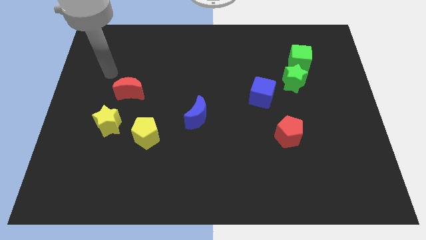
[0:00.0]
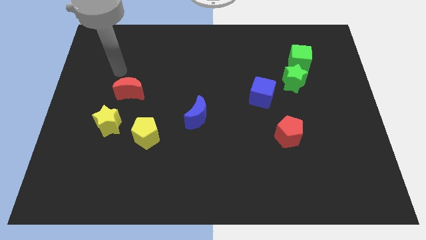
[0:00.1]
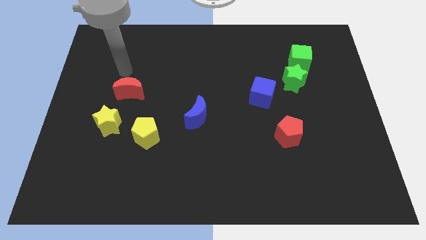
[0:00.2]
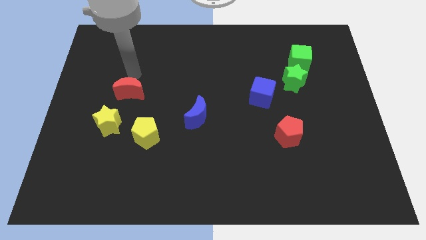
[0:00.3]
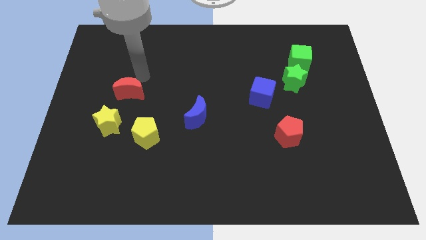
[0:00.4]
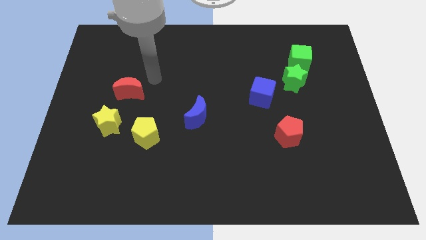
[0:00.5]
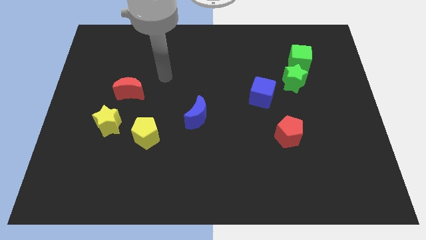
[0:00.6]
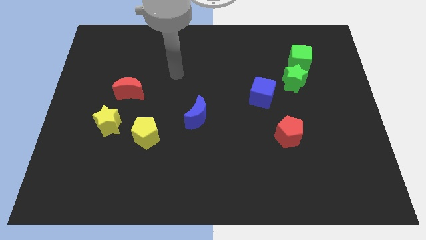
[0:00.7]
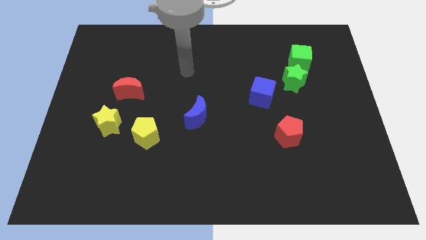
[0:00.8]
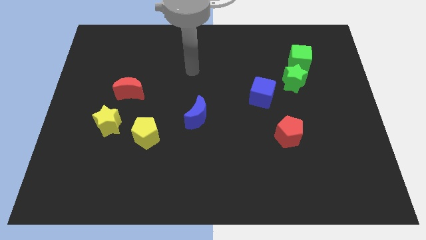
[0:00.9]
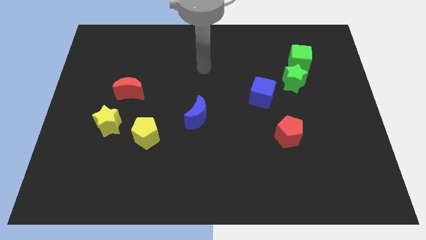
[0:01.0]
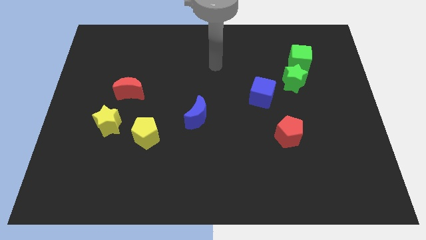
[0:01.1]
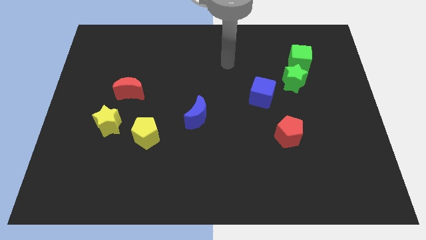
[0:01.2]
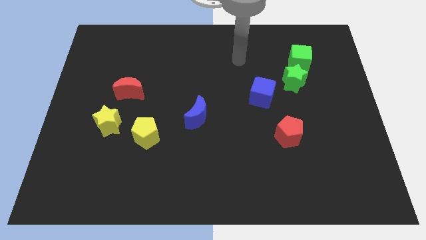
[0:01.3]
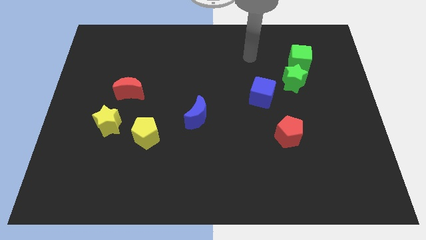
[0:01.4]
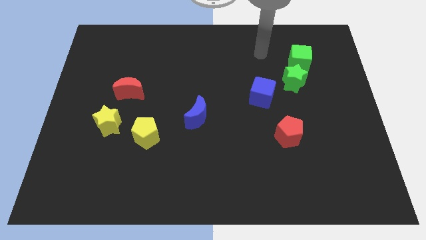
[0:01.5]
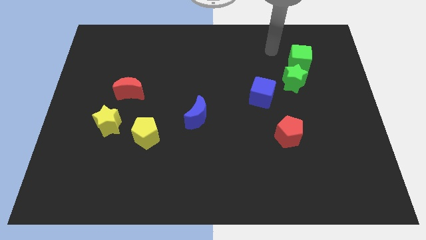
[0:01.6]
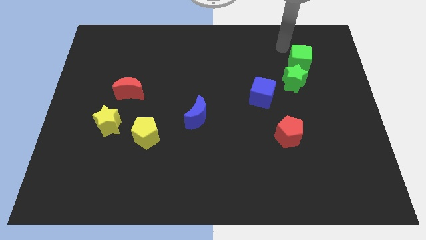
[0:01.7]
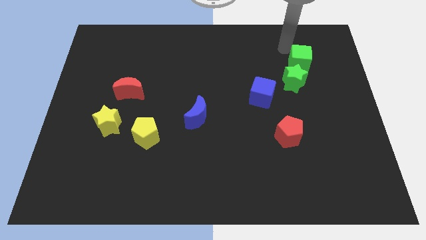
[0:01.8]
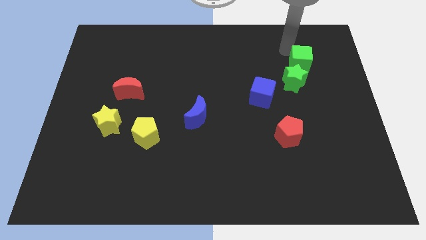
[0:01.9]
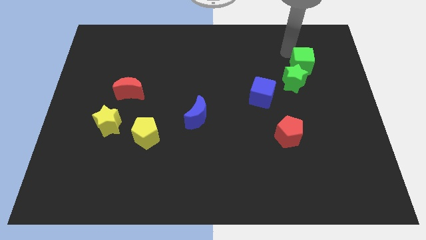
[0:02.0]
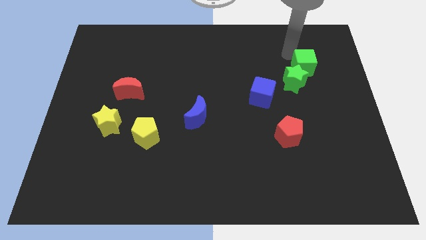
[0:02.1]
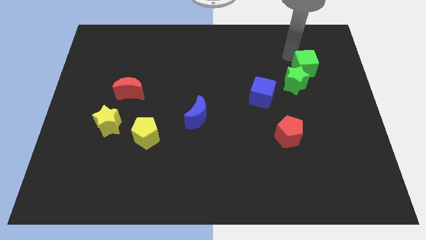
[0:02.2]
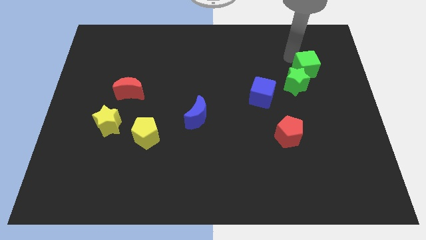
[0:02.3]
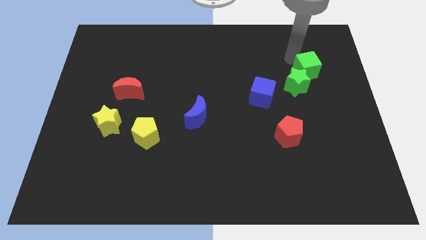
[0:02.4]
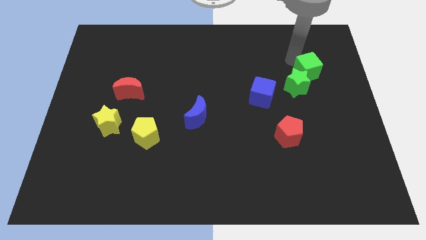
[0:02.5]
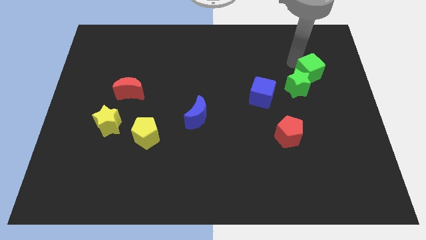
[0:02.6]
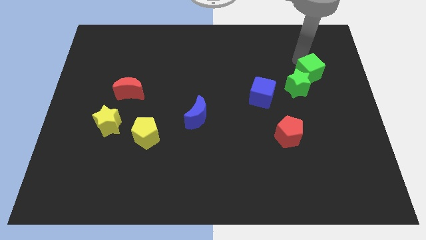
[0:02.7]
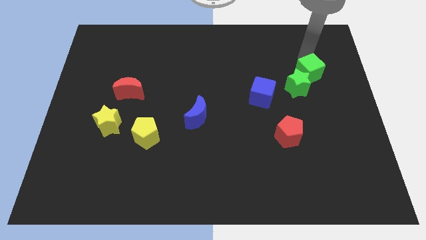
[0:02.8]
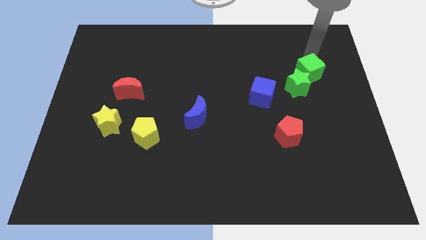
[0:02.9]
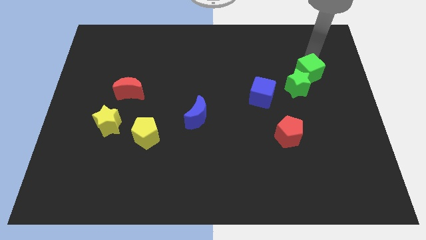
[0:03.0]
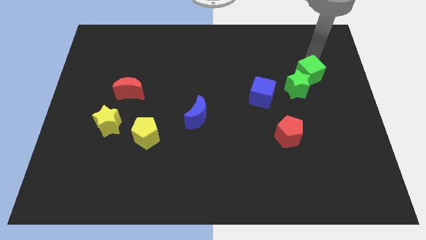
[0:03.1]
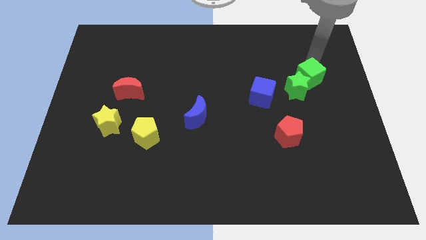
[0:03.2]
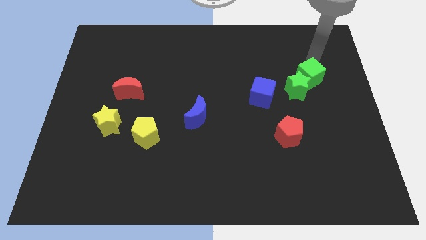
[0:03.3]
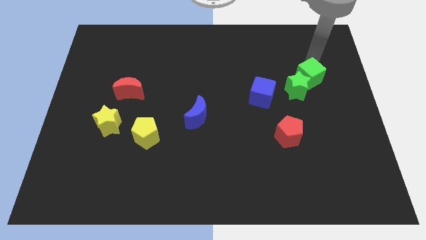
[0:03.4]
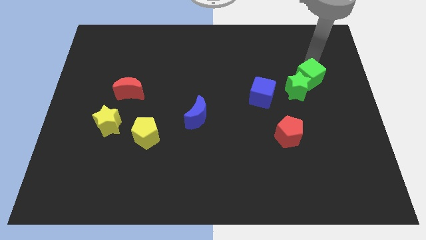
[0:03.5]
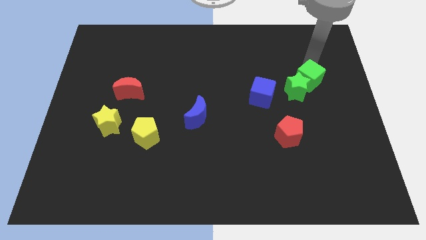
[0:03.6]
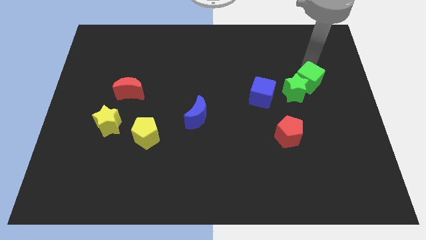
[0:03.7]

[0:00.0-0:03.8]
push the green cube a bit down

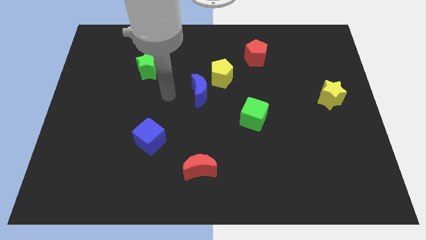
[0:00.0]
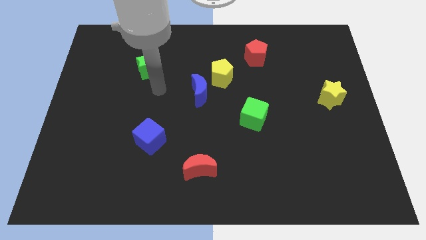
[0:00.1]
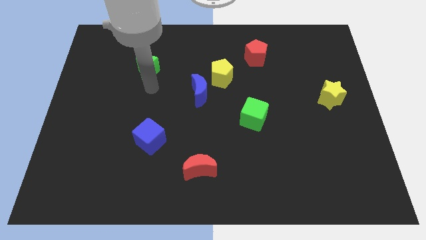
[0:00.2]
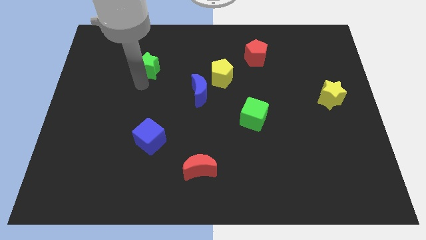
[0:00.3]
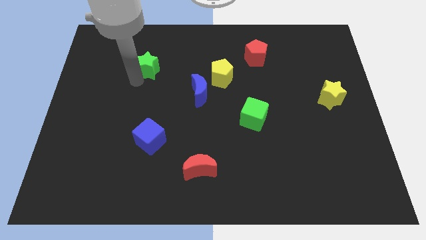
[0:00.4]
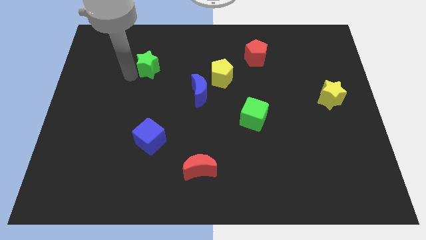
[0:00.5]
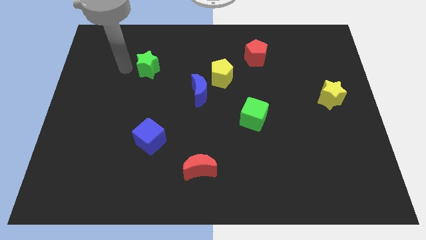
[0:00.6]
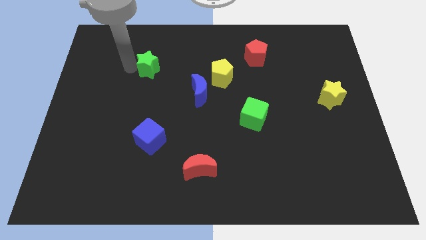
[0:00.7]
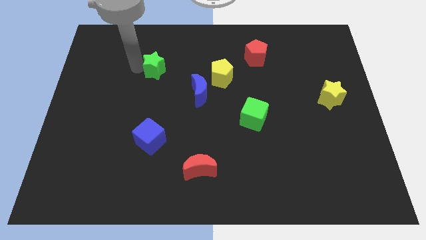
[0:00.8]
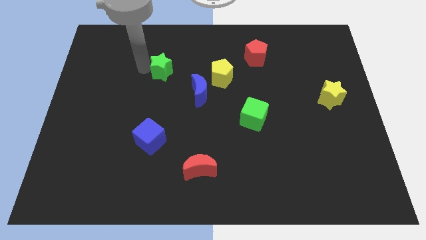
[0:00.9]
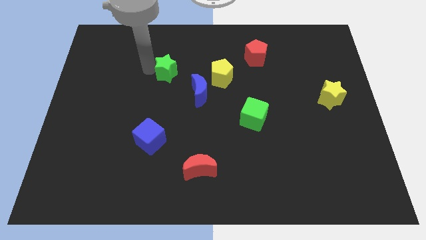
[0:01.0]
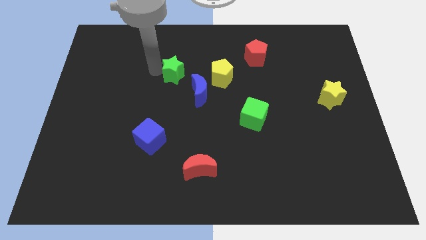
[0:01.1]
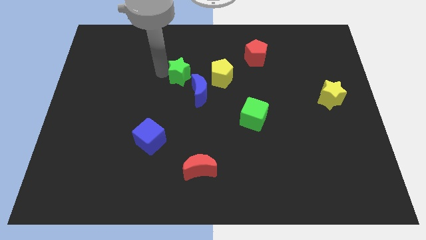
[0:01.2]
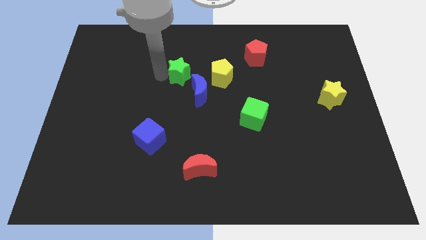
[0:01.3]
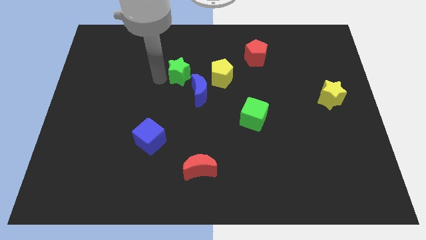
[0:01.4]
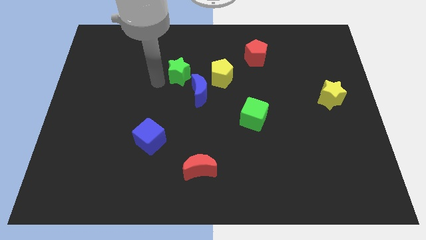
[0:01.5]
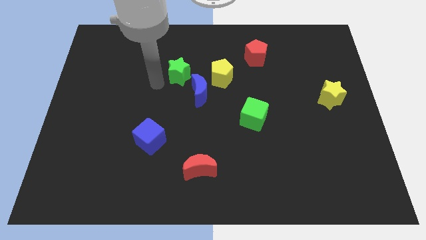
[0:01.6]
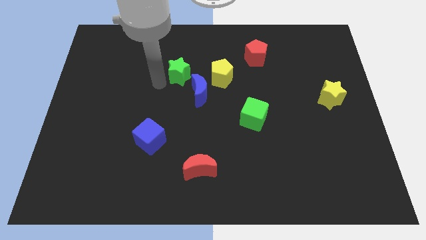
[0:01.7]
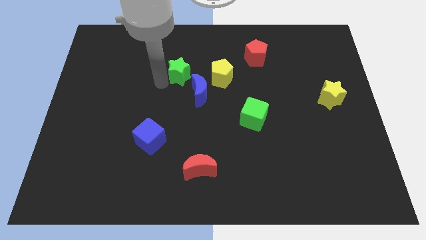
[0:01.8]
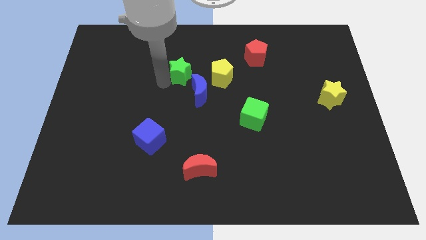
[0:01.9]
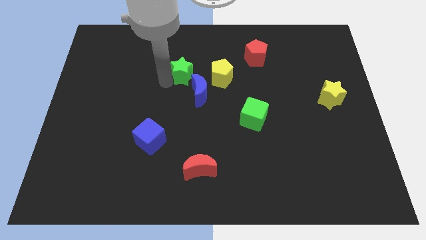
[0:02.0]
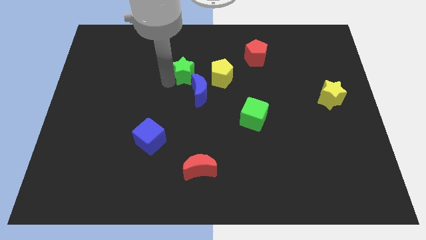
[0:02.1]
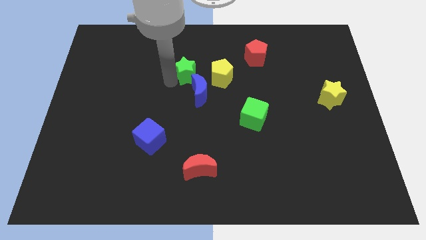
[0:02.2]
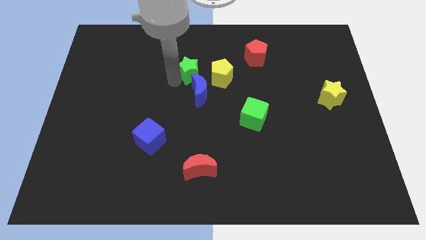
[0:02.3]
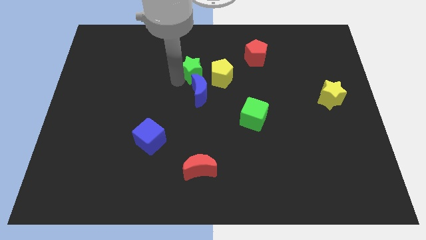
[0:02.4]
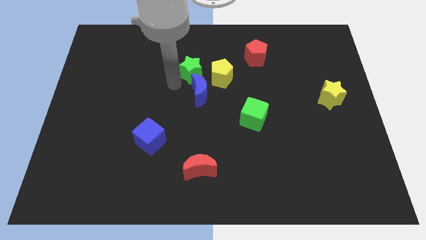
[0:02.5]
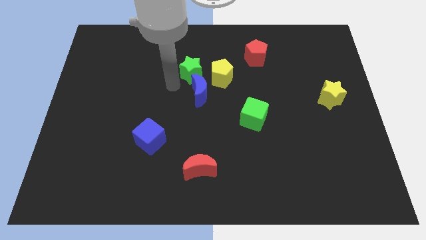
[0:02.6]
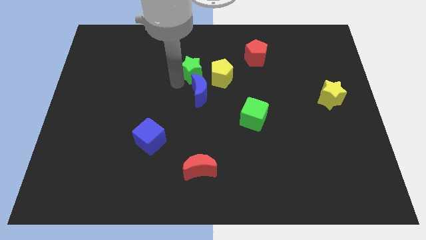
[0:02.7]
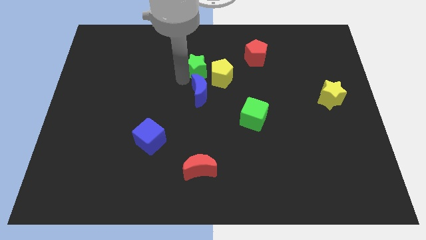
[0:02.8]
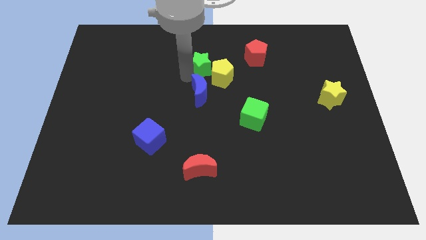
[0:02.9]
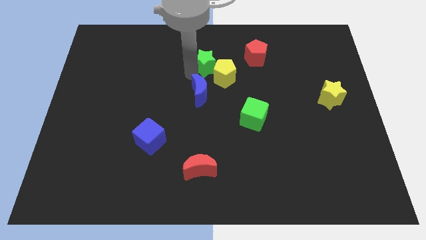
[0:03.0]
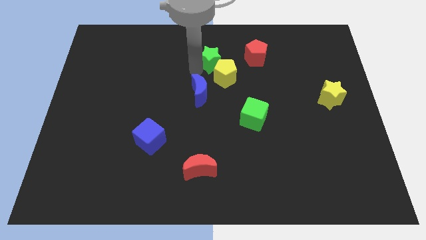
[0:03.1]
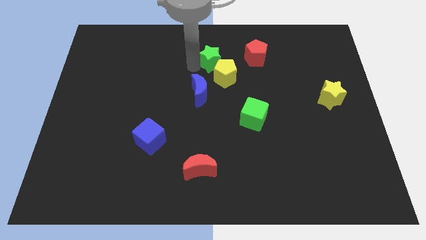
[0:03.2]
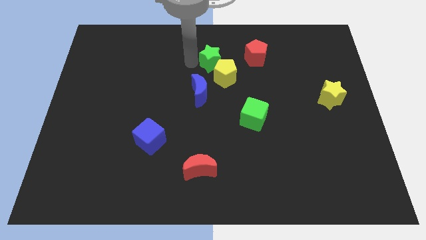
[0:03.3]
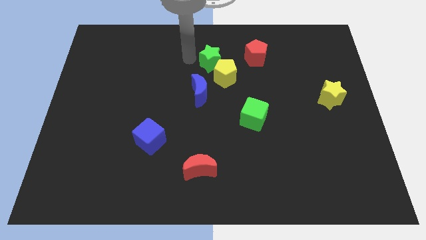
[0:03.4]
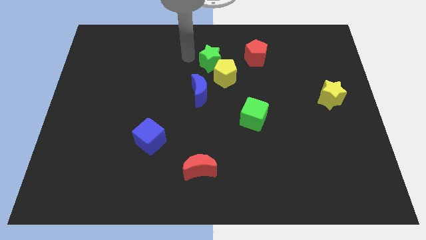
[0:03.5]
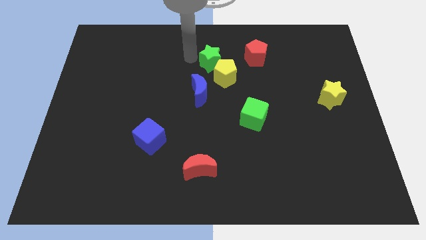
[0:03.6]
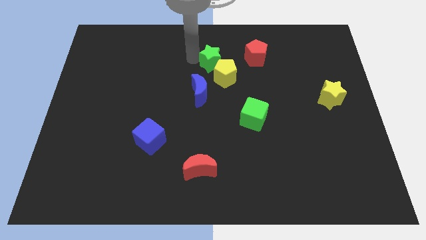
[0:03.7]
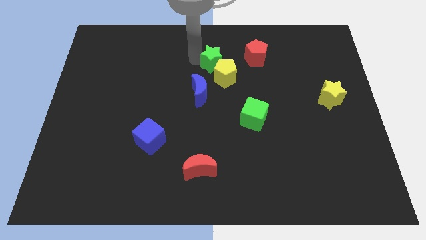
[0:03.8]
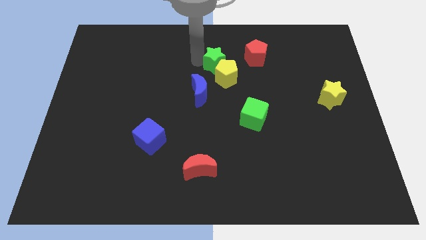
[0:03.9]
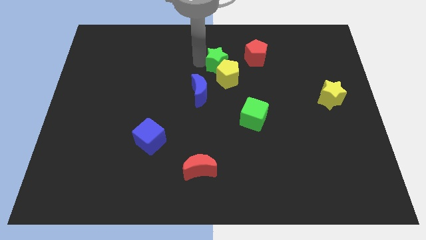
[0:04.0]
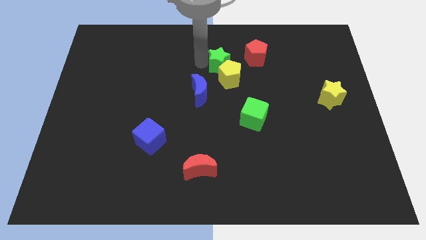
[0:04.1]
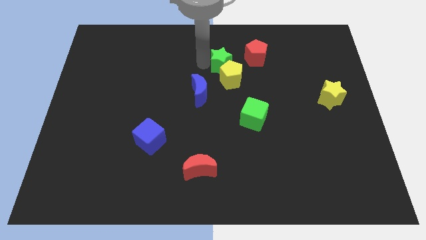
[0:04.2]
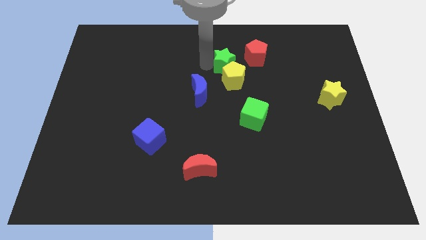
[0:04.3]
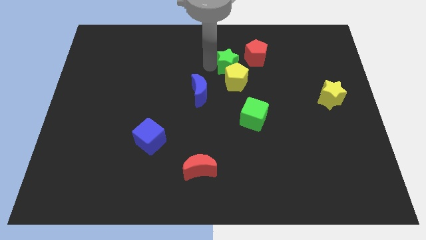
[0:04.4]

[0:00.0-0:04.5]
move the green star right
